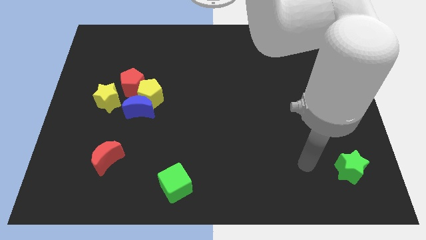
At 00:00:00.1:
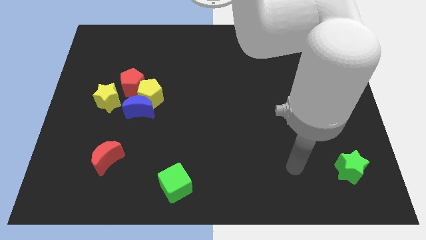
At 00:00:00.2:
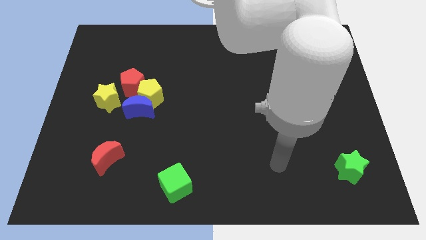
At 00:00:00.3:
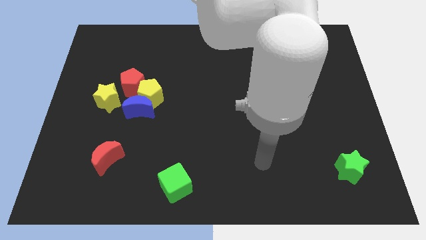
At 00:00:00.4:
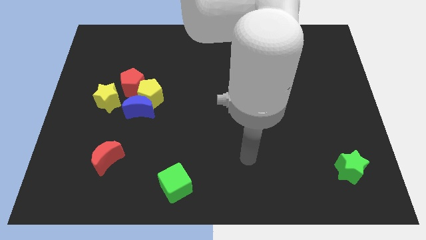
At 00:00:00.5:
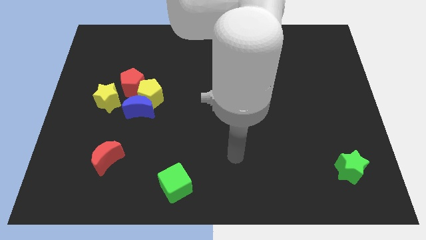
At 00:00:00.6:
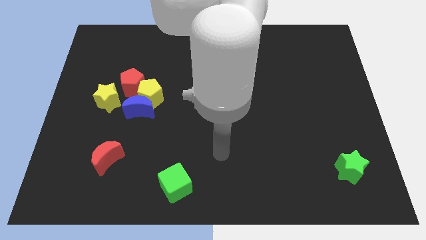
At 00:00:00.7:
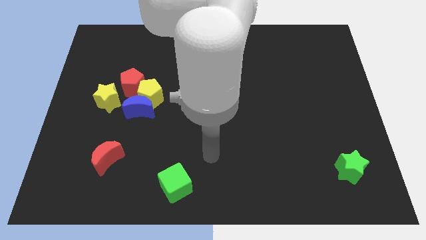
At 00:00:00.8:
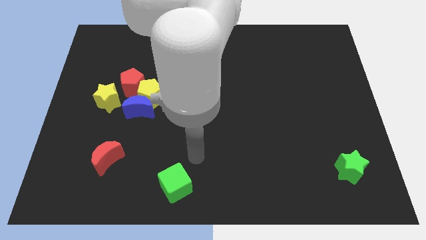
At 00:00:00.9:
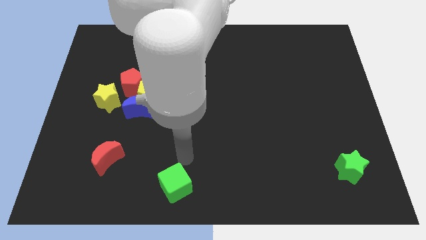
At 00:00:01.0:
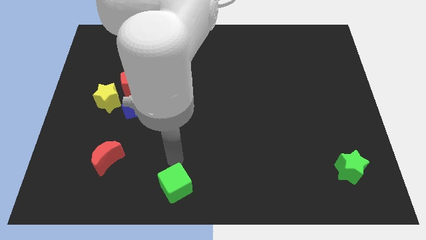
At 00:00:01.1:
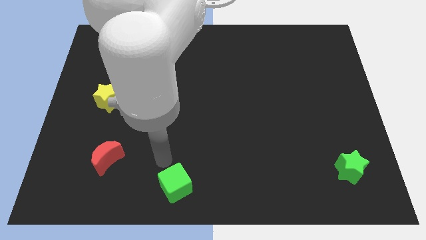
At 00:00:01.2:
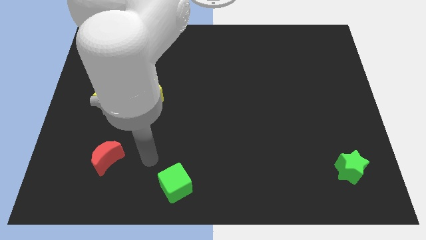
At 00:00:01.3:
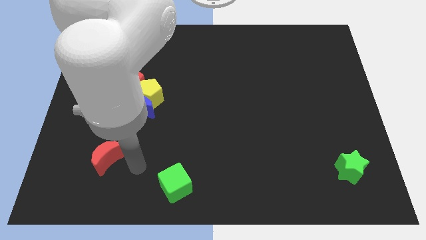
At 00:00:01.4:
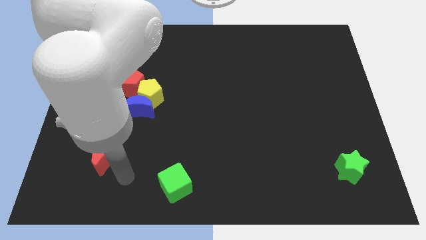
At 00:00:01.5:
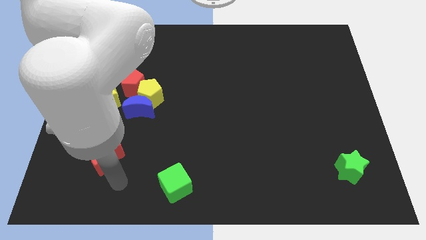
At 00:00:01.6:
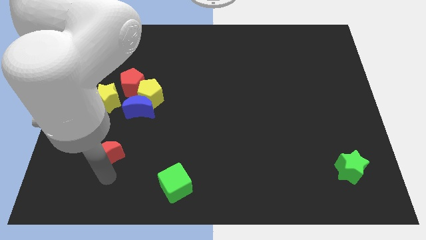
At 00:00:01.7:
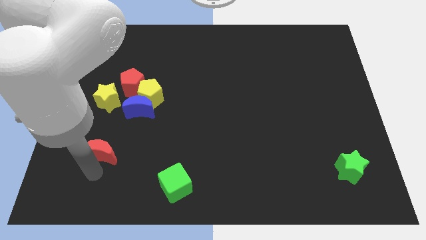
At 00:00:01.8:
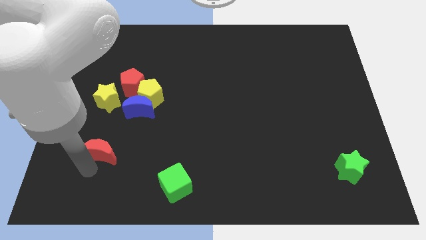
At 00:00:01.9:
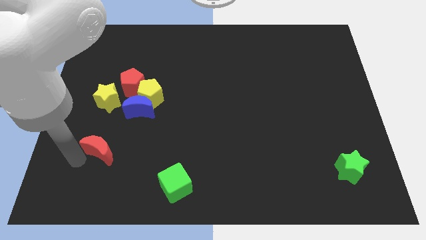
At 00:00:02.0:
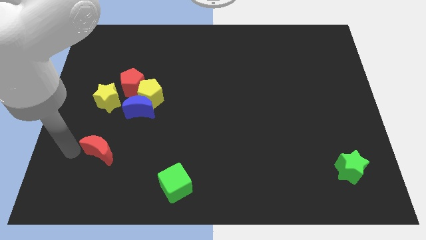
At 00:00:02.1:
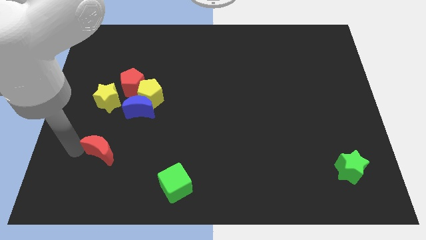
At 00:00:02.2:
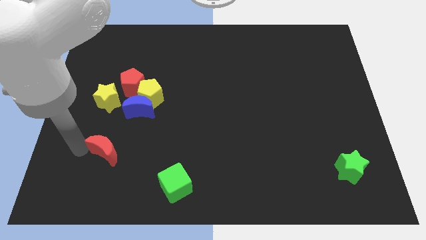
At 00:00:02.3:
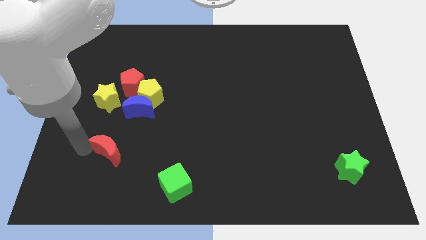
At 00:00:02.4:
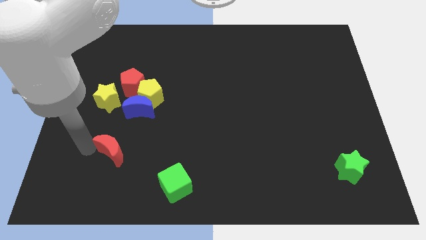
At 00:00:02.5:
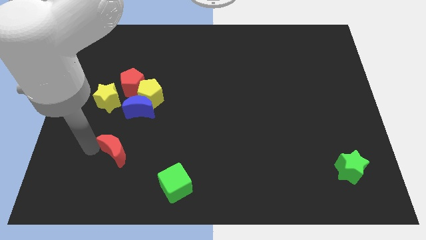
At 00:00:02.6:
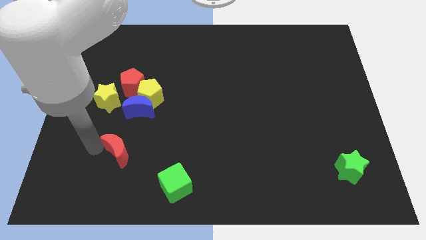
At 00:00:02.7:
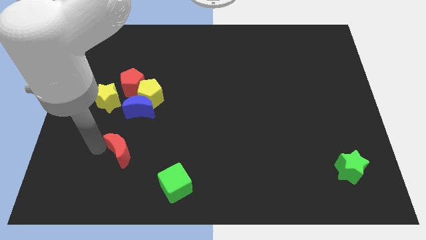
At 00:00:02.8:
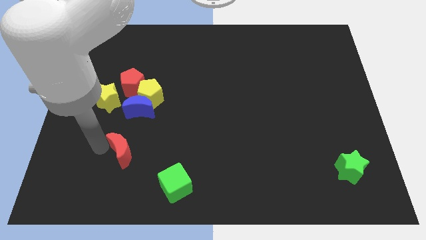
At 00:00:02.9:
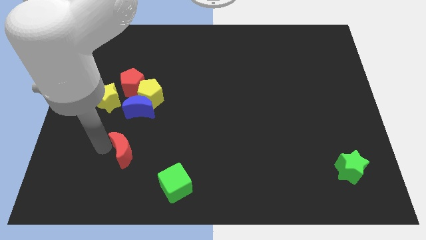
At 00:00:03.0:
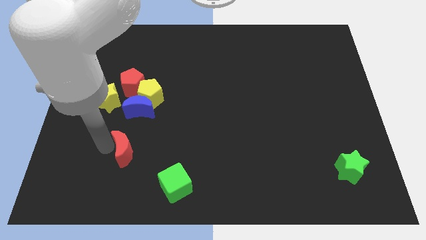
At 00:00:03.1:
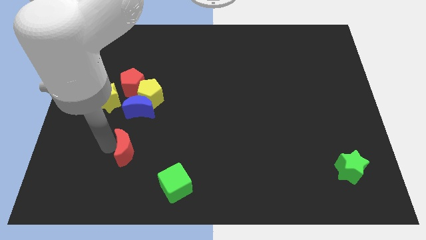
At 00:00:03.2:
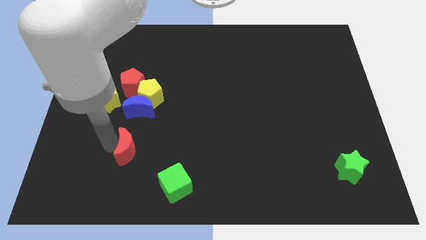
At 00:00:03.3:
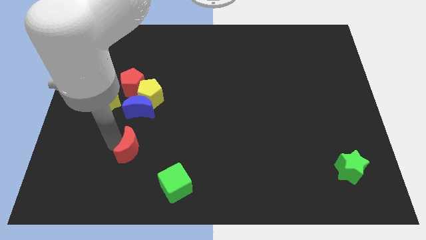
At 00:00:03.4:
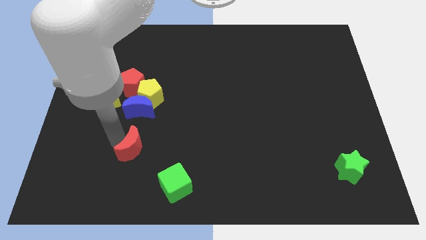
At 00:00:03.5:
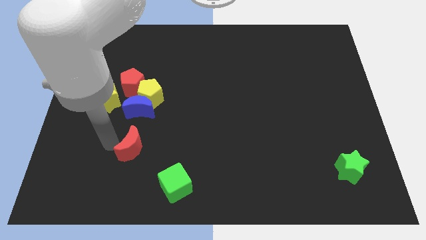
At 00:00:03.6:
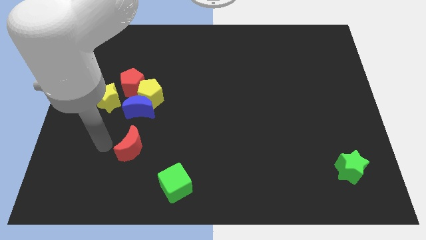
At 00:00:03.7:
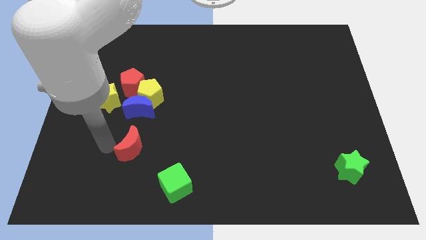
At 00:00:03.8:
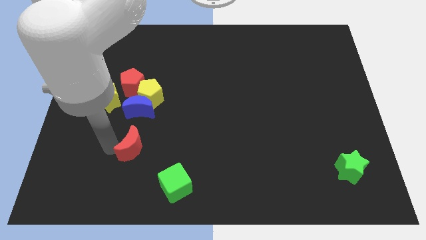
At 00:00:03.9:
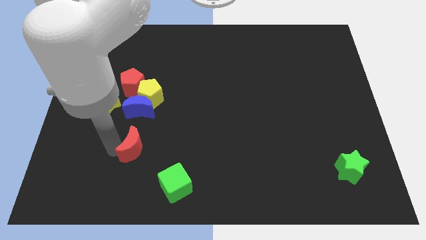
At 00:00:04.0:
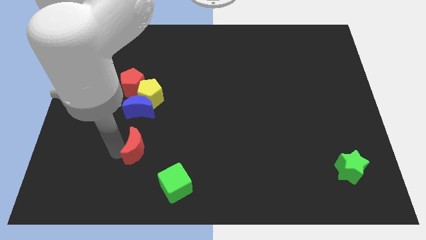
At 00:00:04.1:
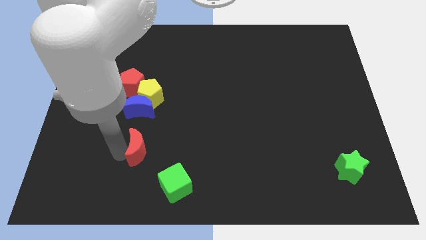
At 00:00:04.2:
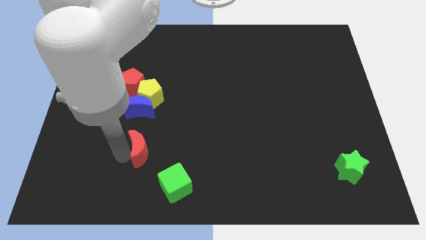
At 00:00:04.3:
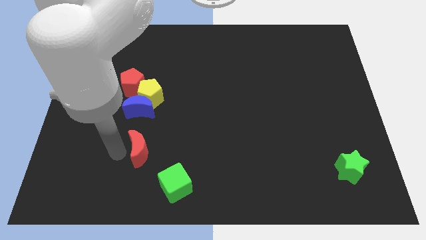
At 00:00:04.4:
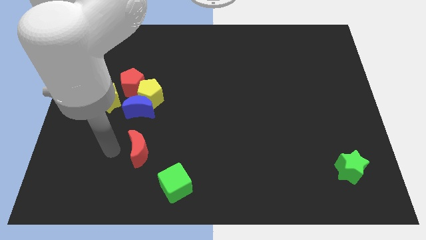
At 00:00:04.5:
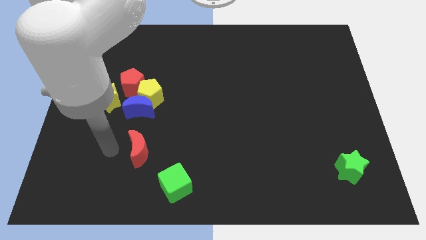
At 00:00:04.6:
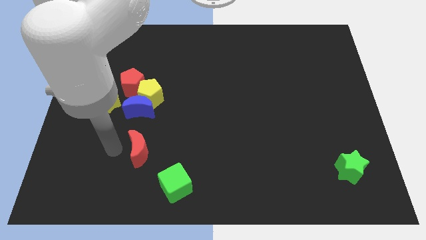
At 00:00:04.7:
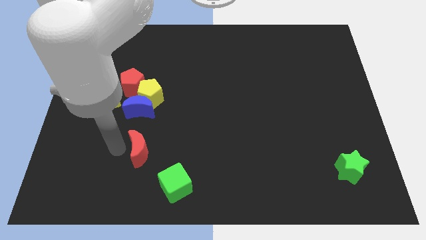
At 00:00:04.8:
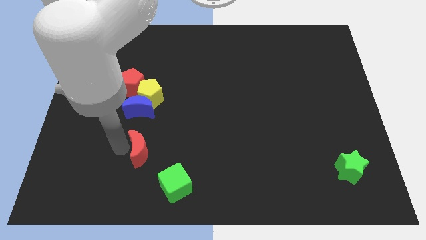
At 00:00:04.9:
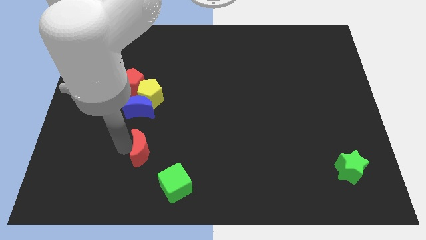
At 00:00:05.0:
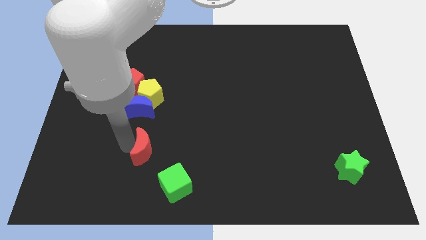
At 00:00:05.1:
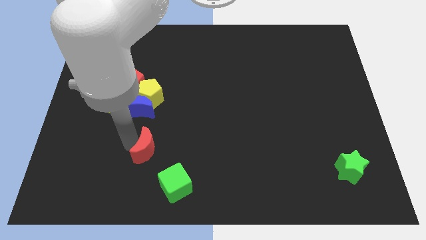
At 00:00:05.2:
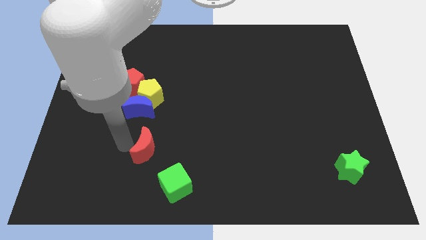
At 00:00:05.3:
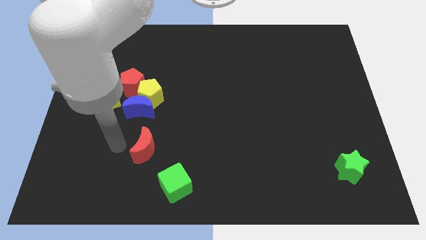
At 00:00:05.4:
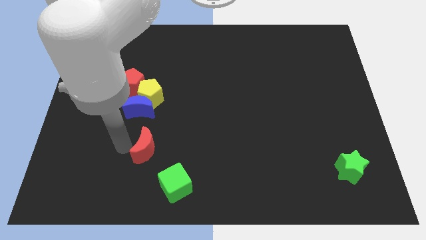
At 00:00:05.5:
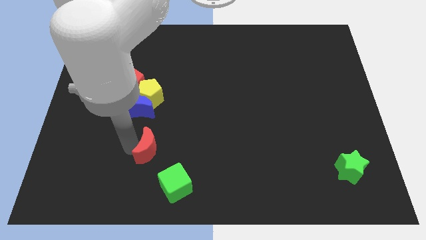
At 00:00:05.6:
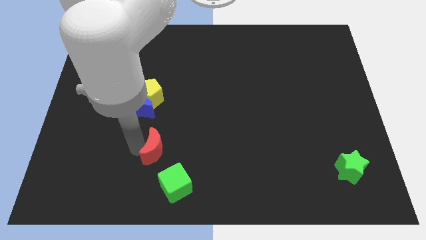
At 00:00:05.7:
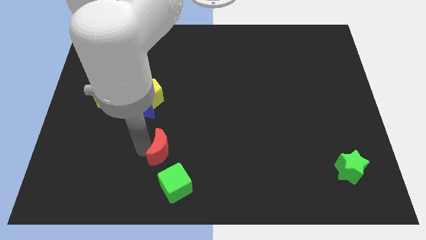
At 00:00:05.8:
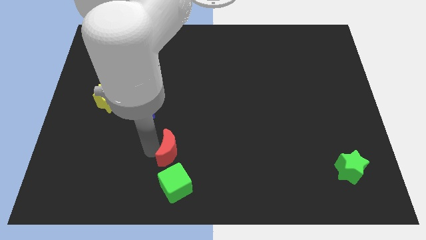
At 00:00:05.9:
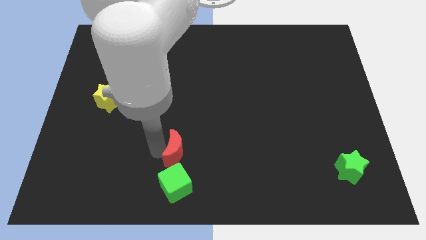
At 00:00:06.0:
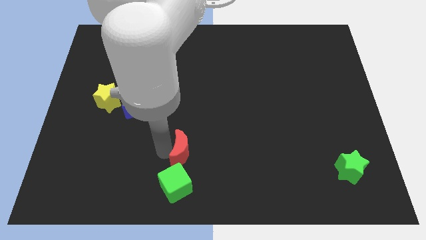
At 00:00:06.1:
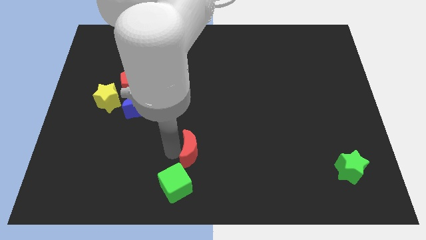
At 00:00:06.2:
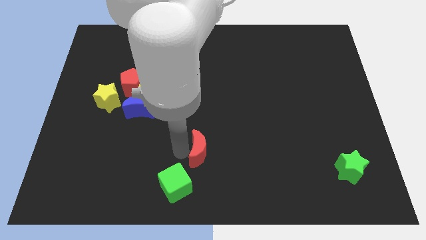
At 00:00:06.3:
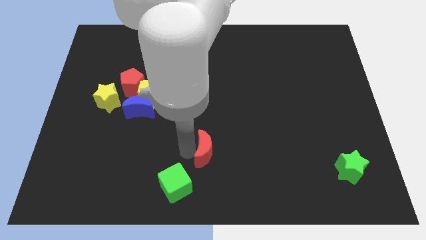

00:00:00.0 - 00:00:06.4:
move the red moon right

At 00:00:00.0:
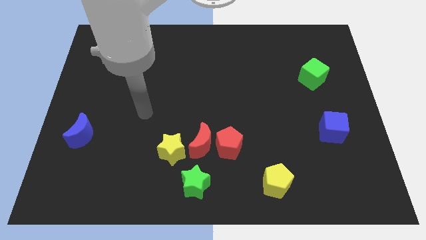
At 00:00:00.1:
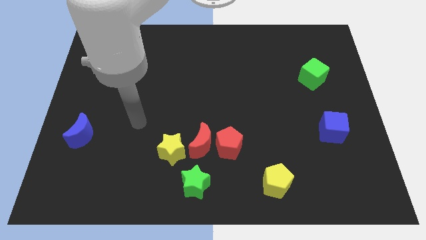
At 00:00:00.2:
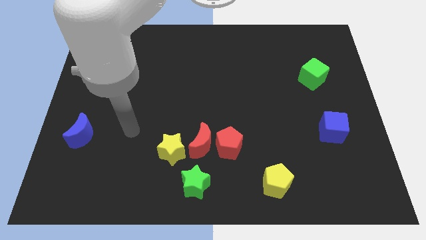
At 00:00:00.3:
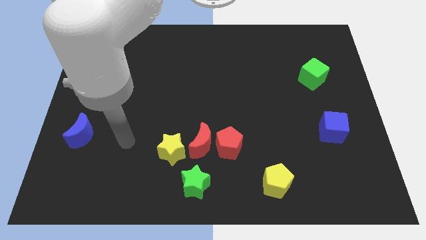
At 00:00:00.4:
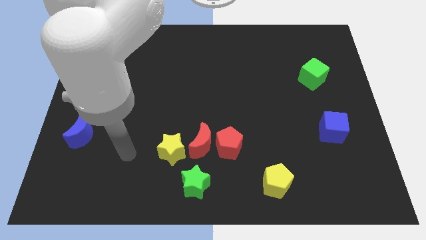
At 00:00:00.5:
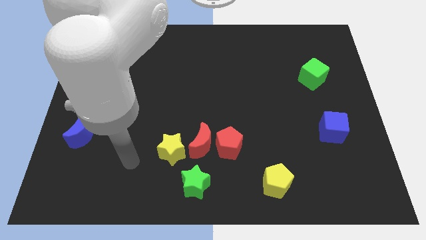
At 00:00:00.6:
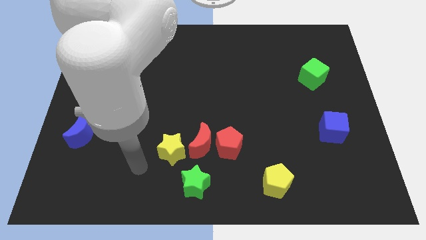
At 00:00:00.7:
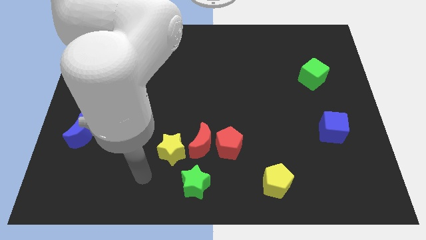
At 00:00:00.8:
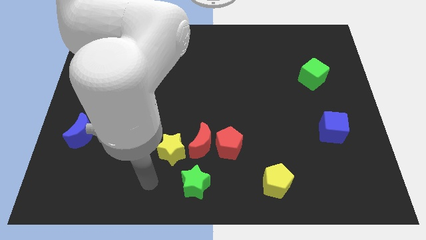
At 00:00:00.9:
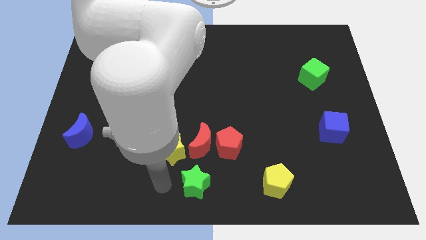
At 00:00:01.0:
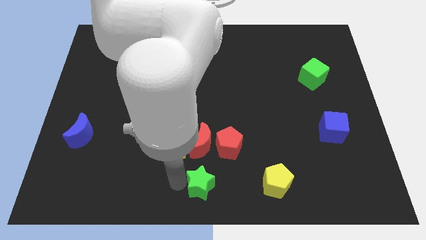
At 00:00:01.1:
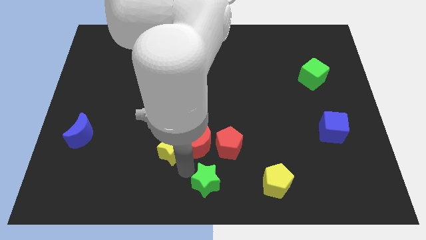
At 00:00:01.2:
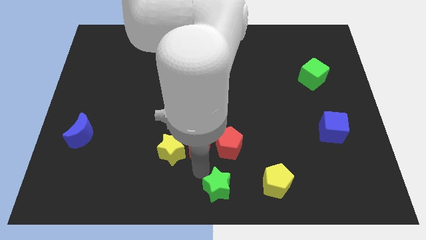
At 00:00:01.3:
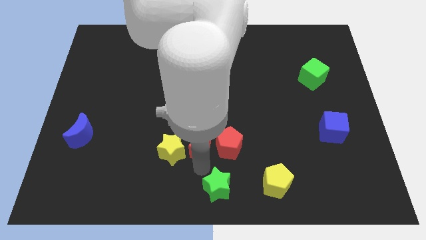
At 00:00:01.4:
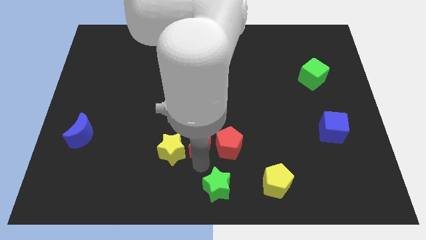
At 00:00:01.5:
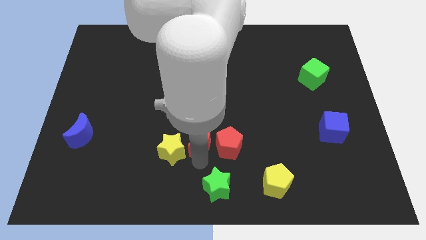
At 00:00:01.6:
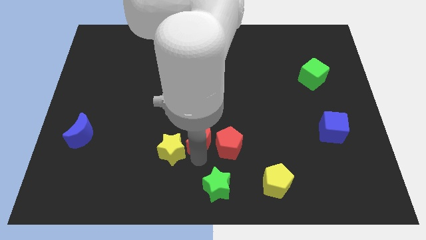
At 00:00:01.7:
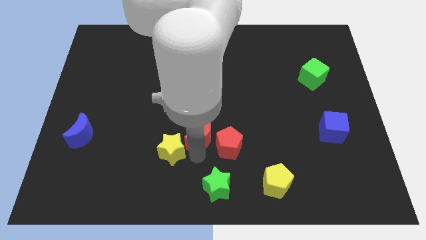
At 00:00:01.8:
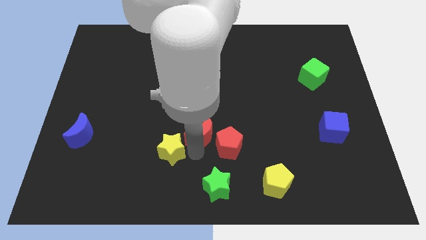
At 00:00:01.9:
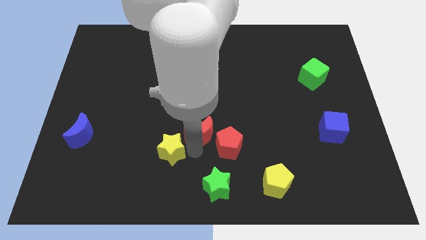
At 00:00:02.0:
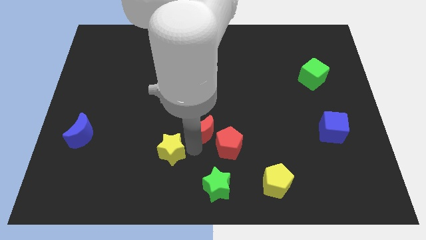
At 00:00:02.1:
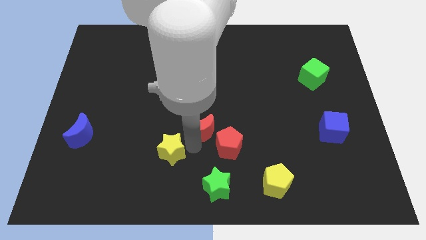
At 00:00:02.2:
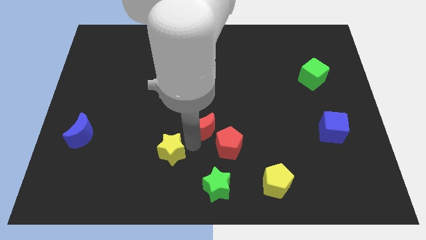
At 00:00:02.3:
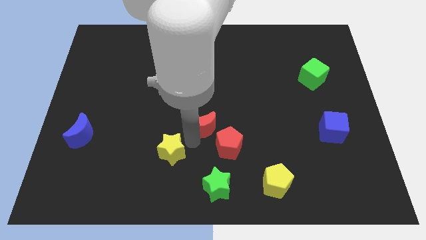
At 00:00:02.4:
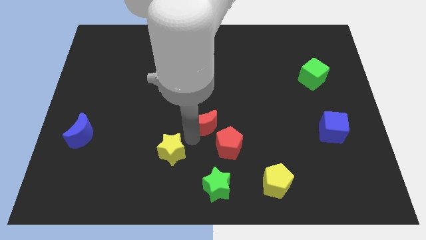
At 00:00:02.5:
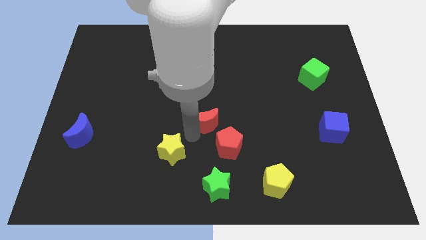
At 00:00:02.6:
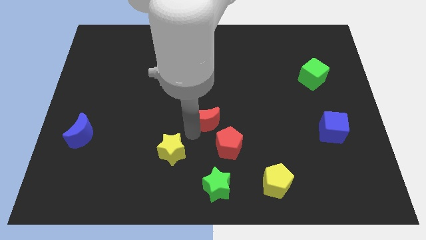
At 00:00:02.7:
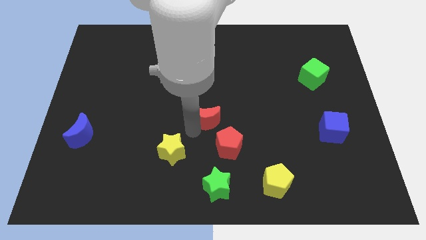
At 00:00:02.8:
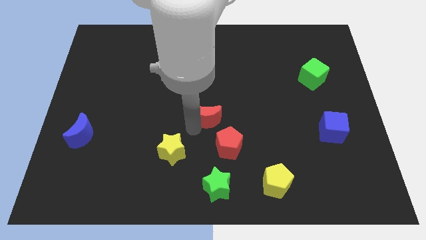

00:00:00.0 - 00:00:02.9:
move the red moon up somewhat
